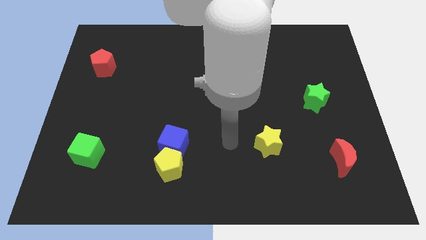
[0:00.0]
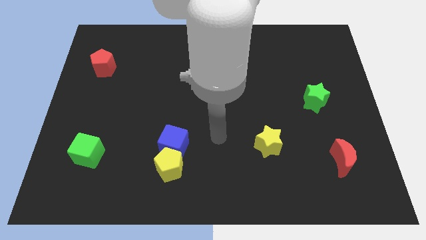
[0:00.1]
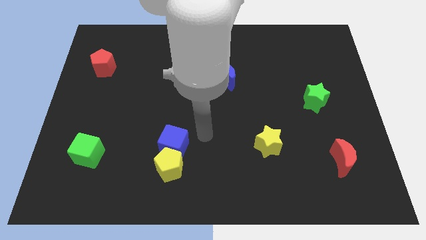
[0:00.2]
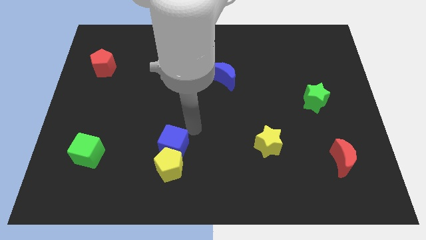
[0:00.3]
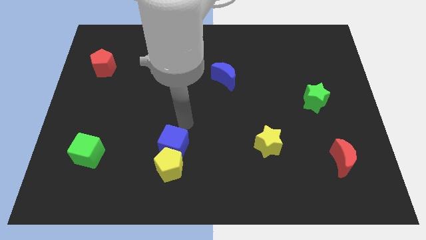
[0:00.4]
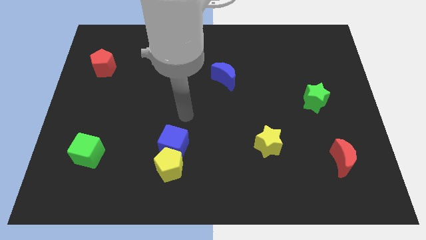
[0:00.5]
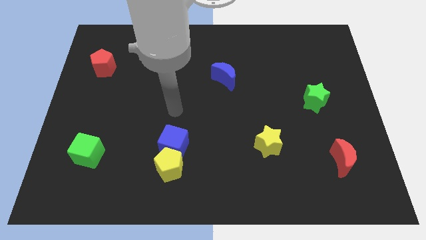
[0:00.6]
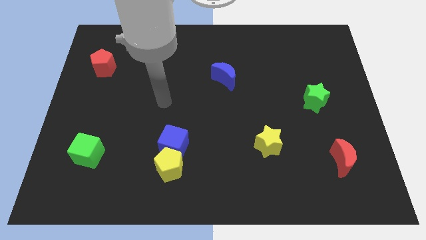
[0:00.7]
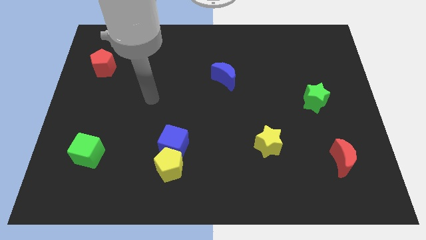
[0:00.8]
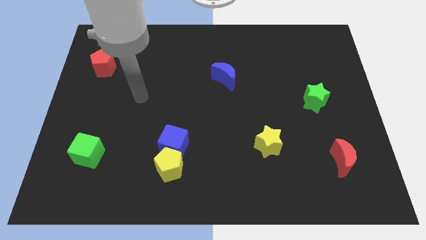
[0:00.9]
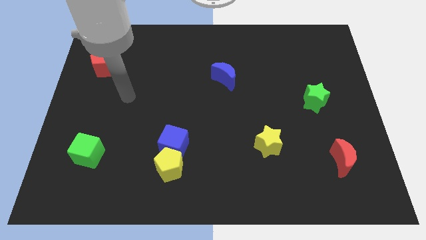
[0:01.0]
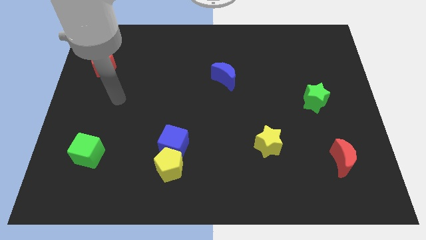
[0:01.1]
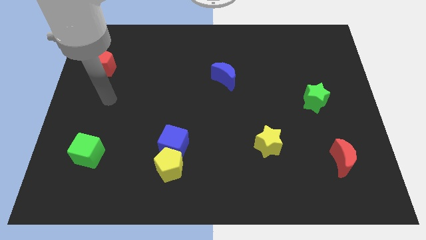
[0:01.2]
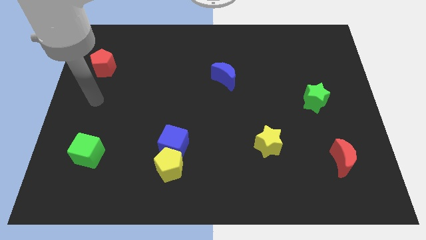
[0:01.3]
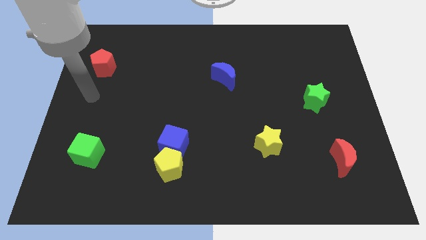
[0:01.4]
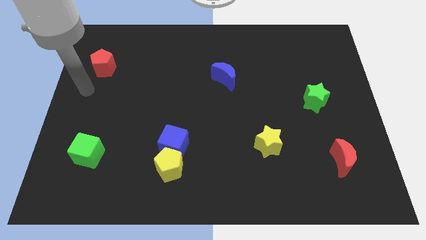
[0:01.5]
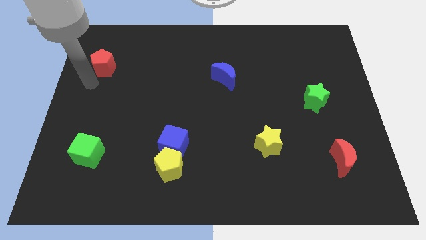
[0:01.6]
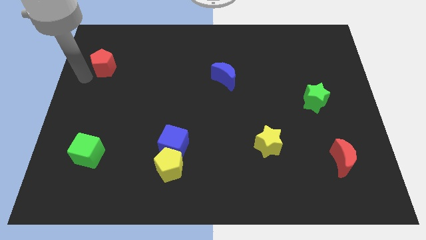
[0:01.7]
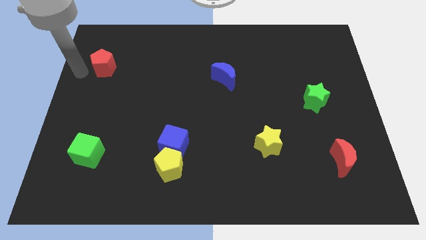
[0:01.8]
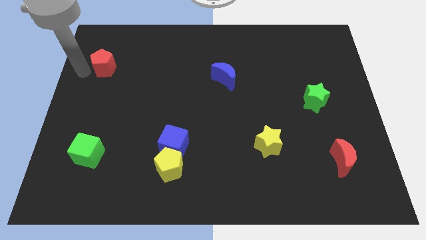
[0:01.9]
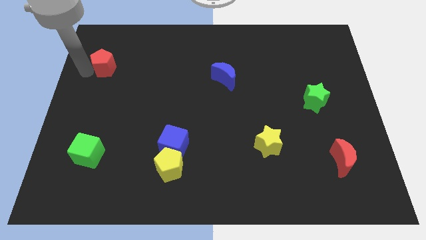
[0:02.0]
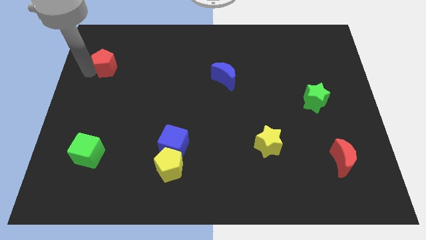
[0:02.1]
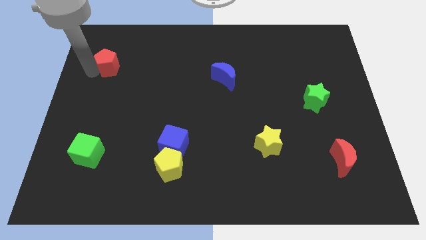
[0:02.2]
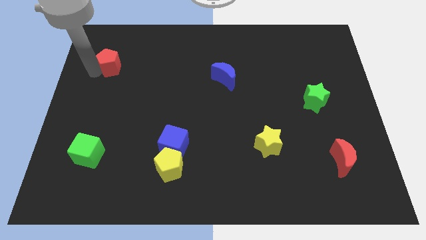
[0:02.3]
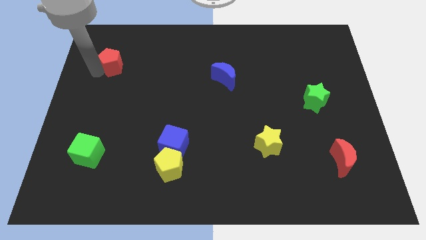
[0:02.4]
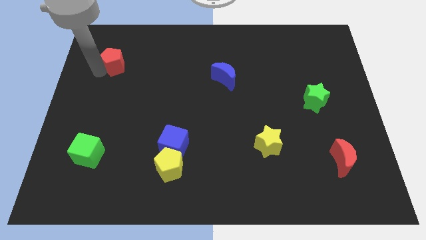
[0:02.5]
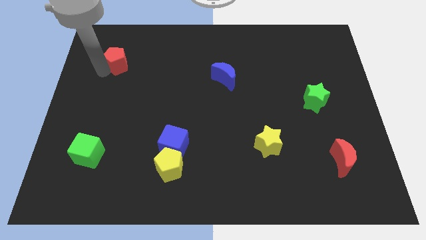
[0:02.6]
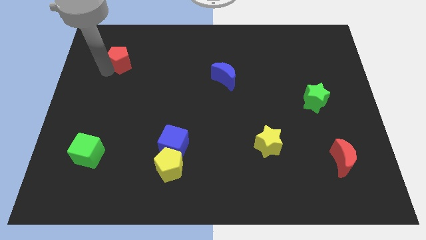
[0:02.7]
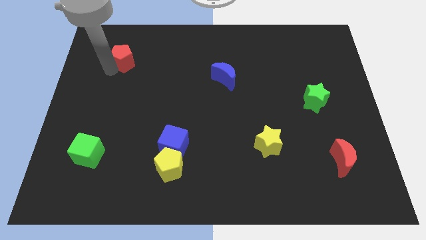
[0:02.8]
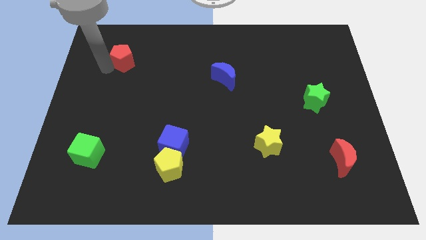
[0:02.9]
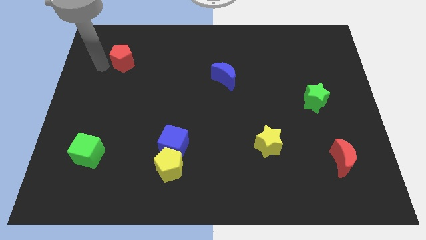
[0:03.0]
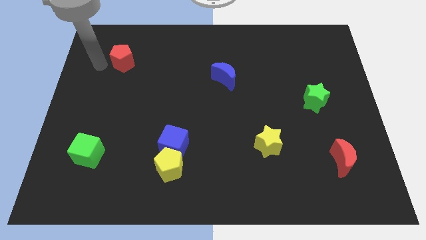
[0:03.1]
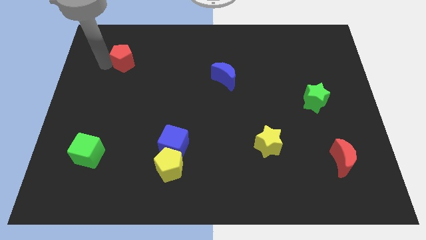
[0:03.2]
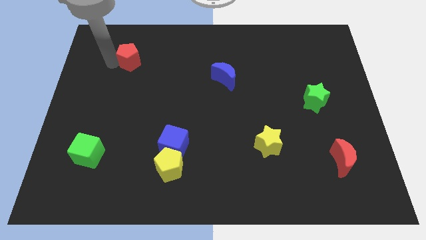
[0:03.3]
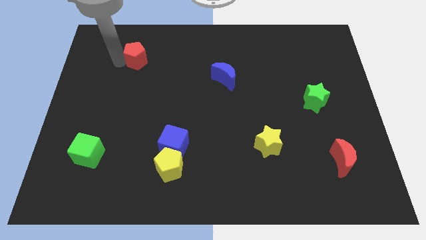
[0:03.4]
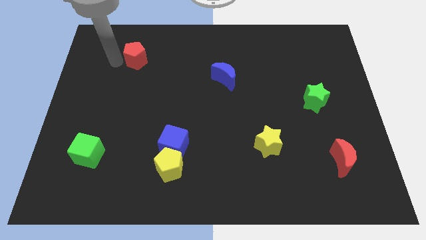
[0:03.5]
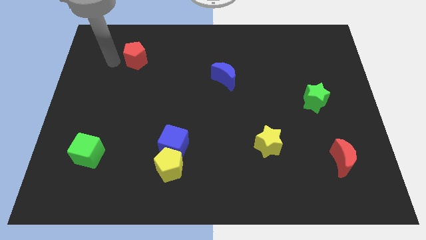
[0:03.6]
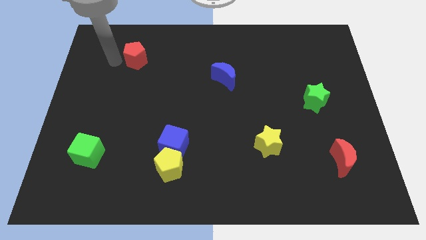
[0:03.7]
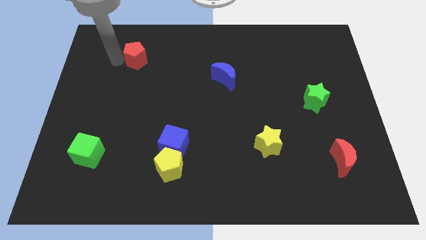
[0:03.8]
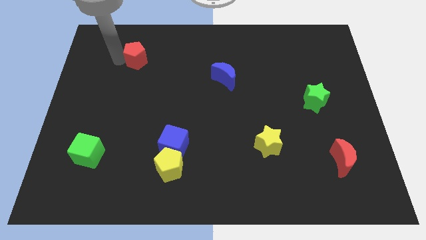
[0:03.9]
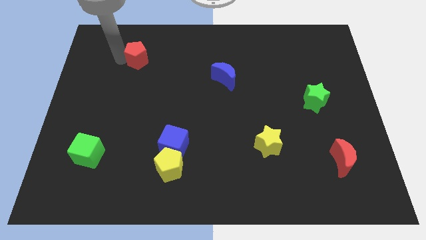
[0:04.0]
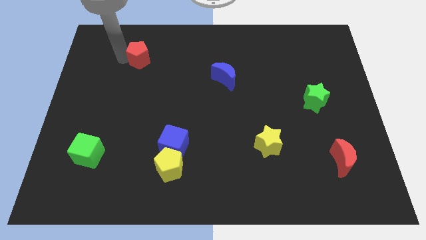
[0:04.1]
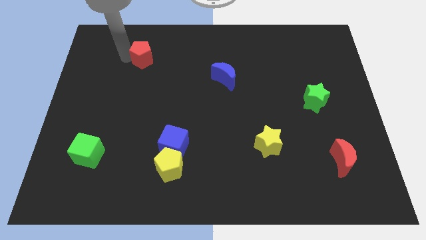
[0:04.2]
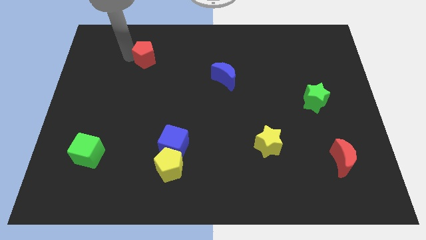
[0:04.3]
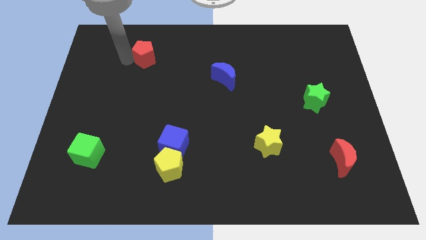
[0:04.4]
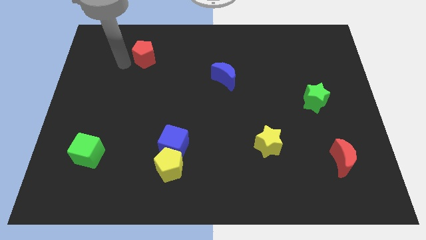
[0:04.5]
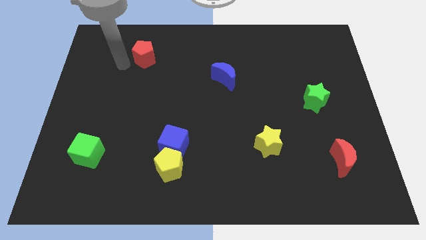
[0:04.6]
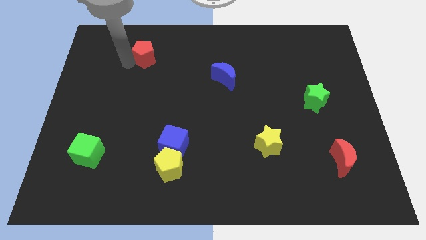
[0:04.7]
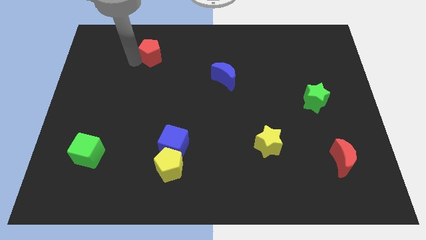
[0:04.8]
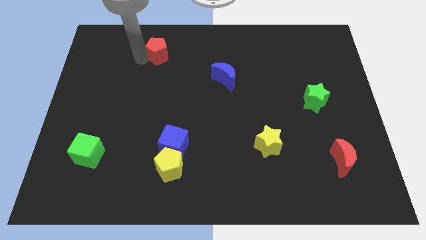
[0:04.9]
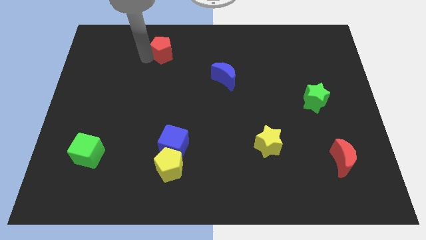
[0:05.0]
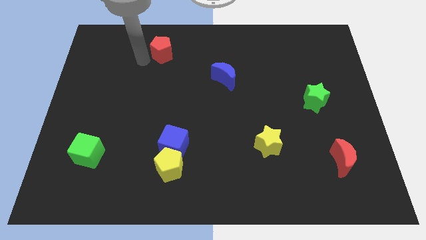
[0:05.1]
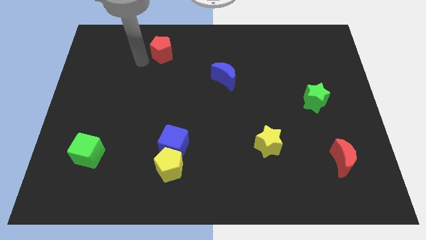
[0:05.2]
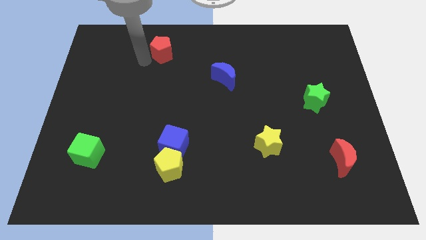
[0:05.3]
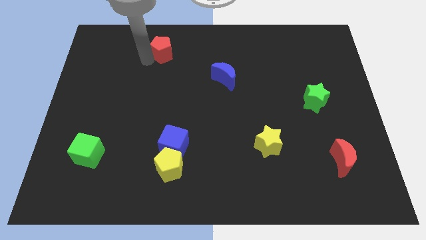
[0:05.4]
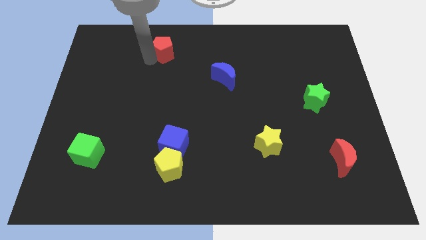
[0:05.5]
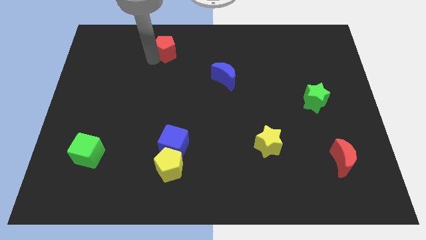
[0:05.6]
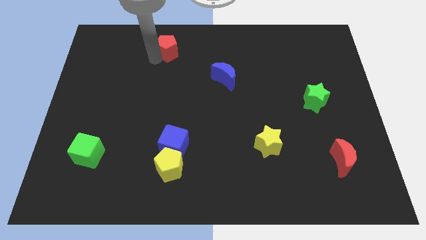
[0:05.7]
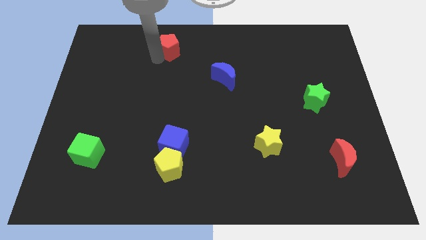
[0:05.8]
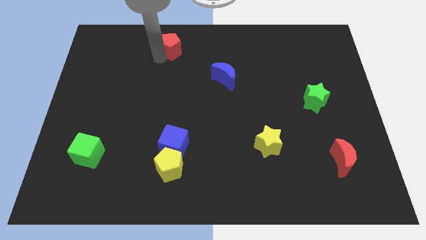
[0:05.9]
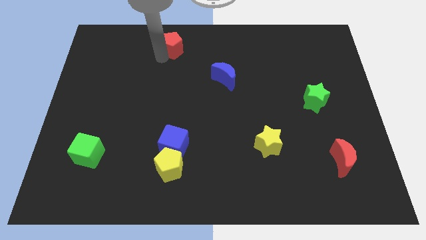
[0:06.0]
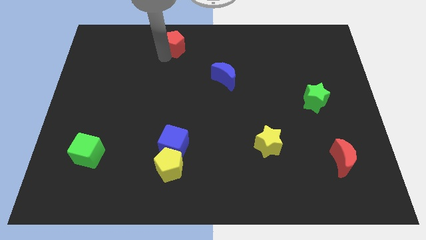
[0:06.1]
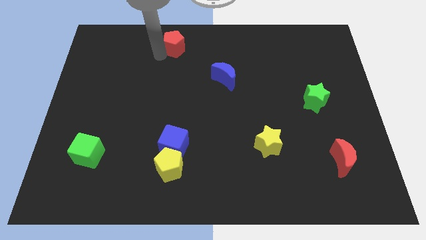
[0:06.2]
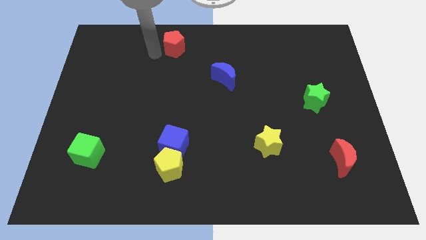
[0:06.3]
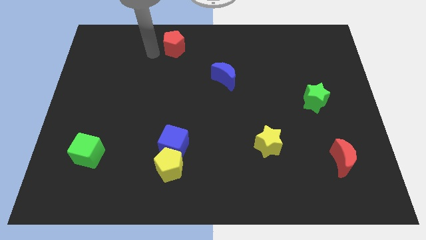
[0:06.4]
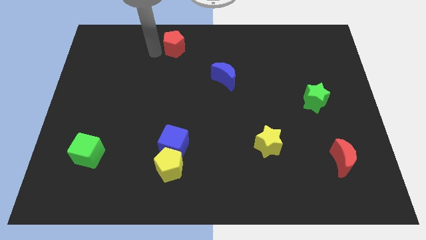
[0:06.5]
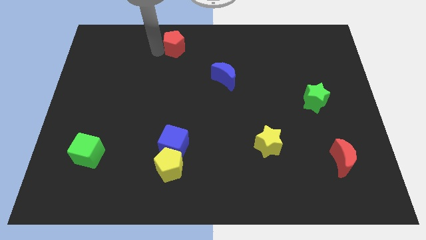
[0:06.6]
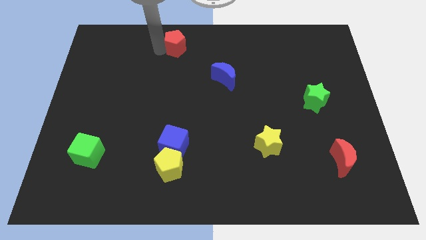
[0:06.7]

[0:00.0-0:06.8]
push the red pentagon to the top side

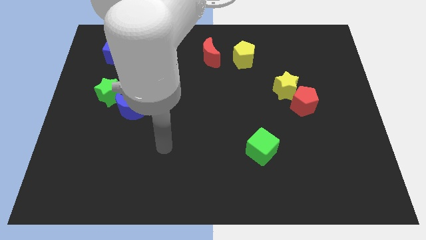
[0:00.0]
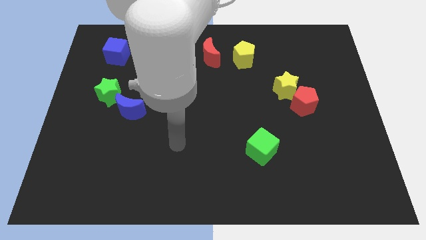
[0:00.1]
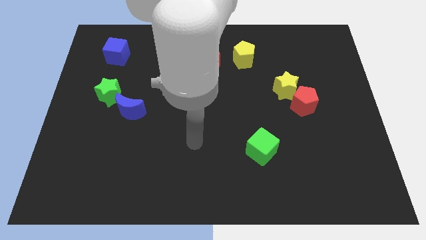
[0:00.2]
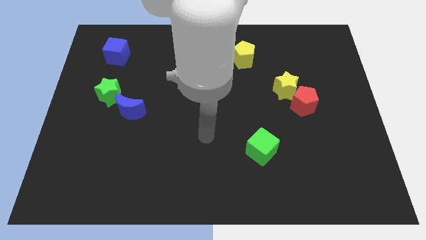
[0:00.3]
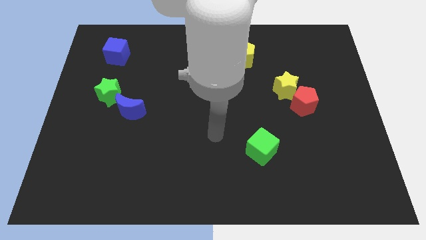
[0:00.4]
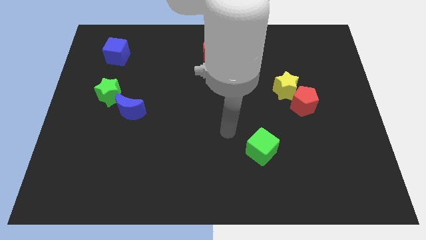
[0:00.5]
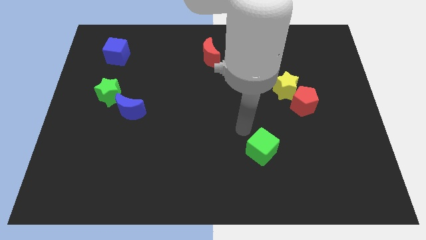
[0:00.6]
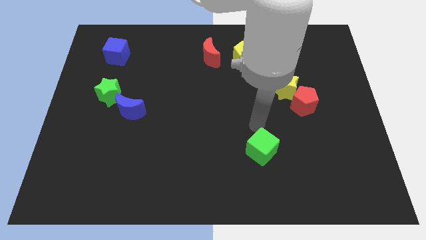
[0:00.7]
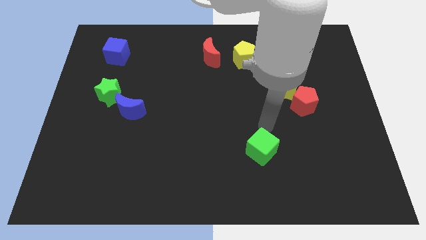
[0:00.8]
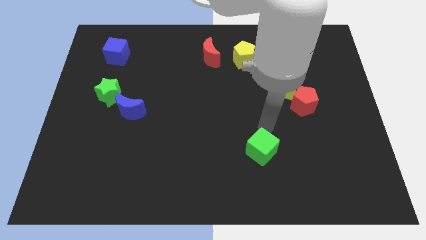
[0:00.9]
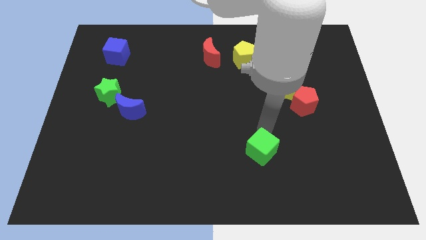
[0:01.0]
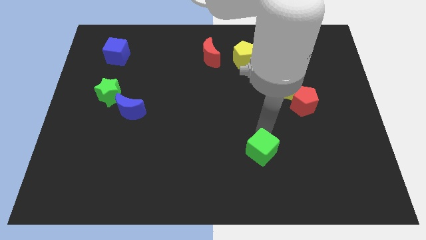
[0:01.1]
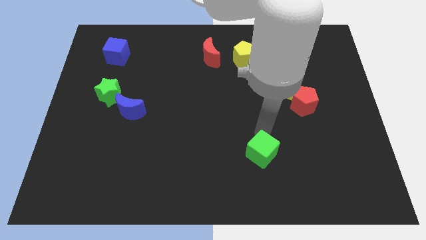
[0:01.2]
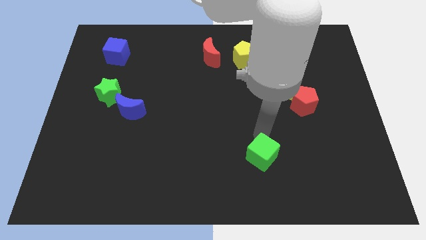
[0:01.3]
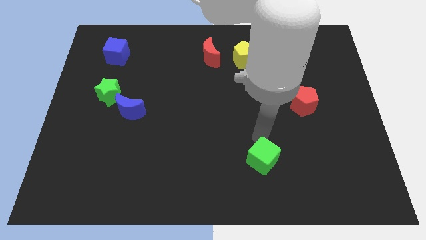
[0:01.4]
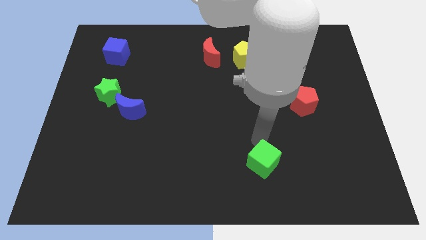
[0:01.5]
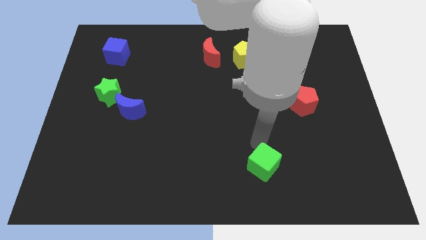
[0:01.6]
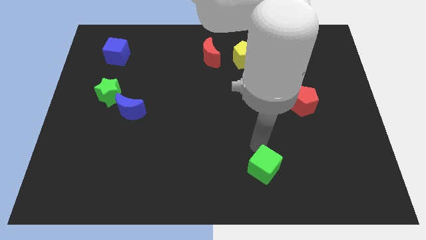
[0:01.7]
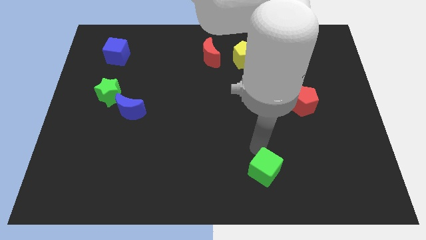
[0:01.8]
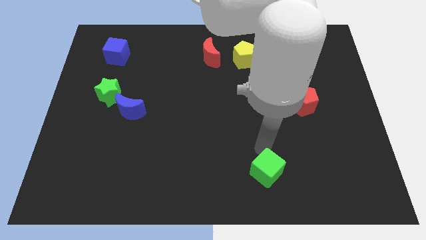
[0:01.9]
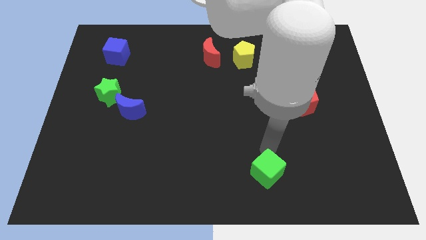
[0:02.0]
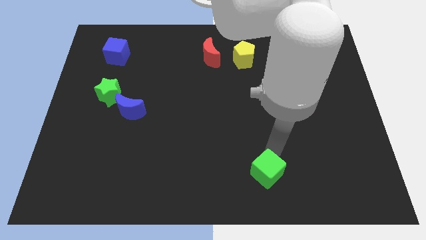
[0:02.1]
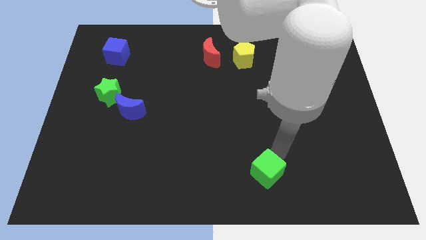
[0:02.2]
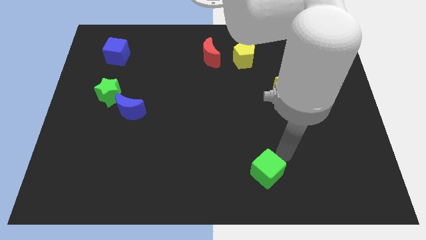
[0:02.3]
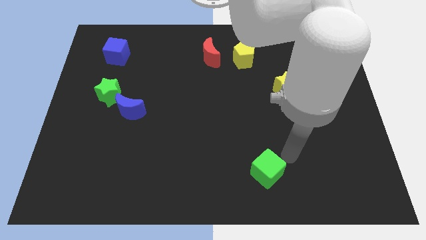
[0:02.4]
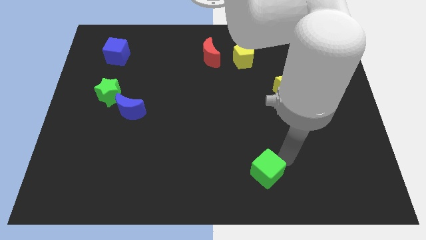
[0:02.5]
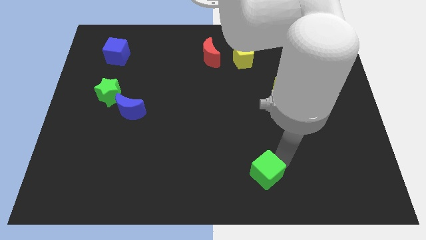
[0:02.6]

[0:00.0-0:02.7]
move the green cube to the bottom side
